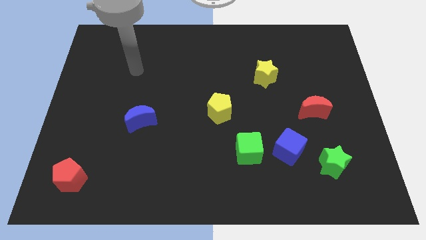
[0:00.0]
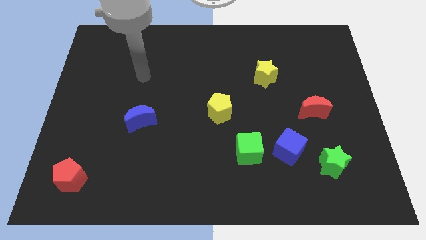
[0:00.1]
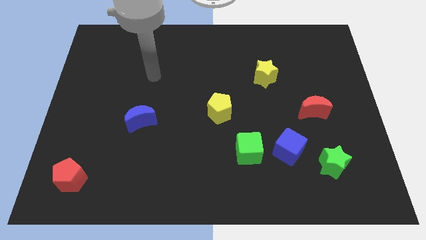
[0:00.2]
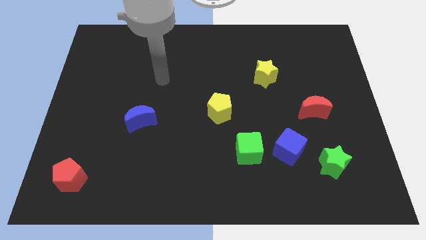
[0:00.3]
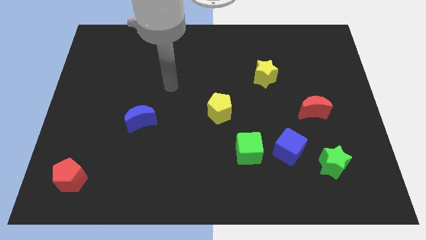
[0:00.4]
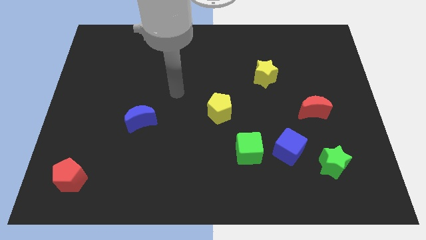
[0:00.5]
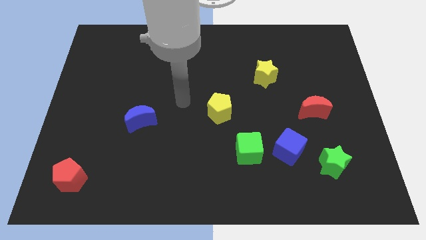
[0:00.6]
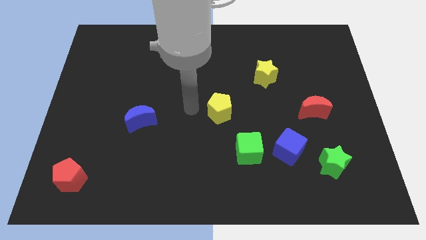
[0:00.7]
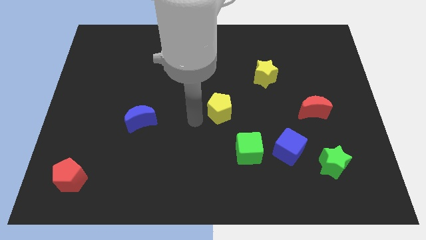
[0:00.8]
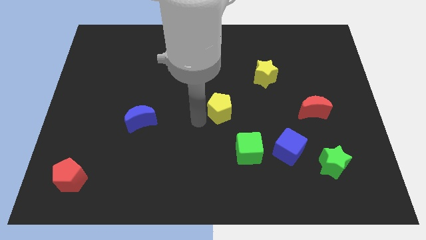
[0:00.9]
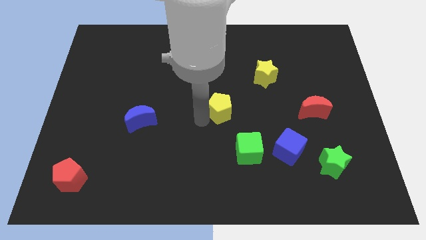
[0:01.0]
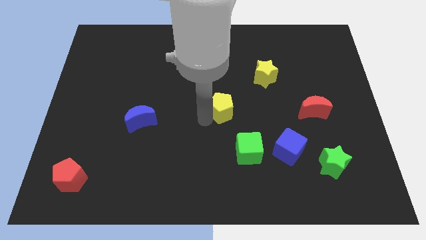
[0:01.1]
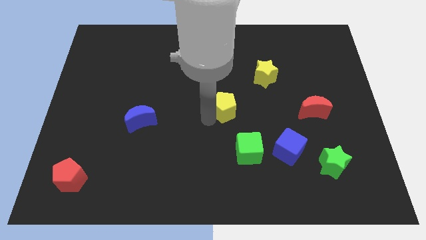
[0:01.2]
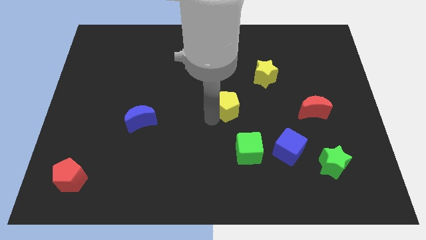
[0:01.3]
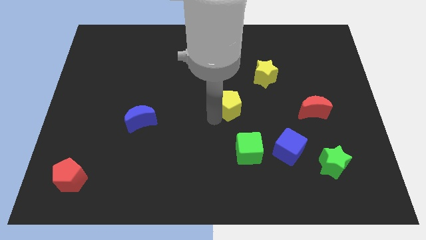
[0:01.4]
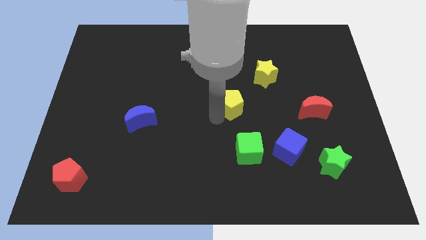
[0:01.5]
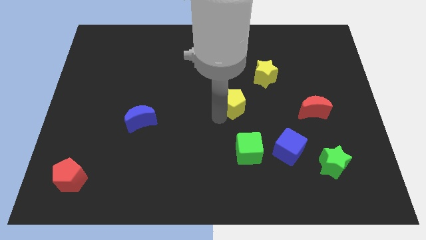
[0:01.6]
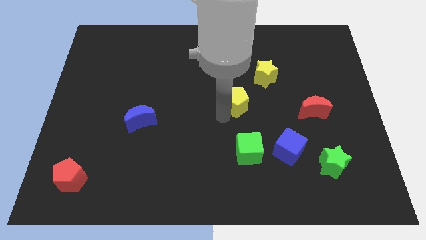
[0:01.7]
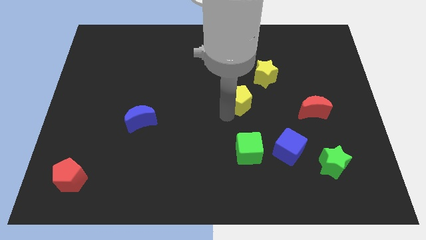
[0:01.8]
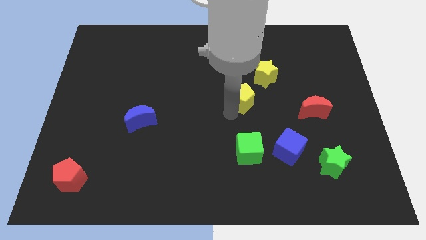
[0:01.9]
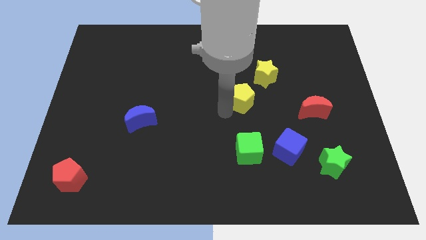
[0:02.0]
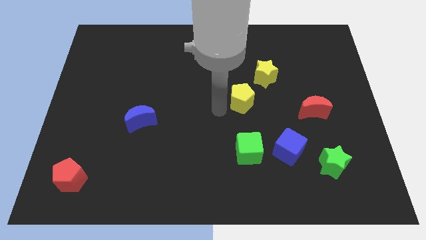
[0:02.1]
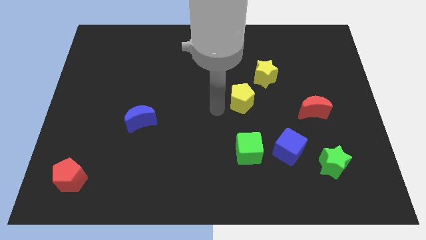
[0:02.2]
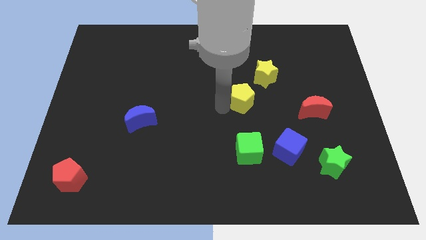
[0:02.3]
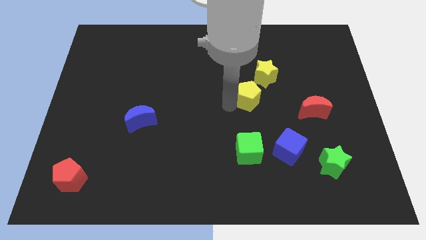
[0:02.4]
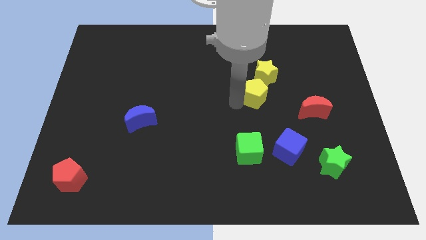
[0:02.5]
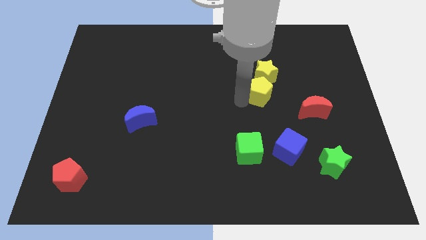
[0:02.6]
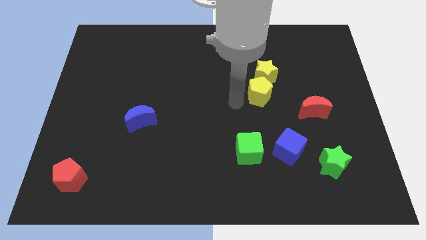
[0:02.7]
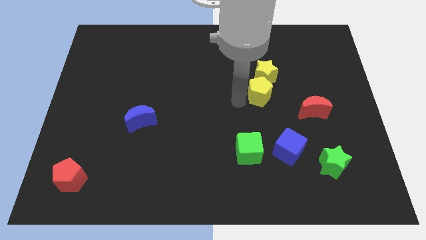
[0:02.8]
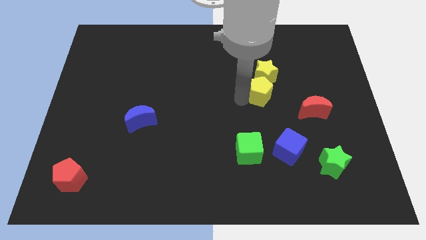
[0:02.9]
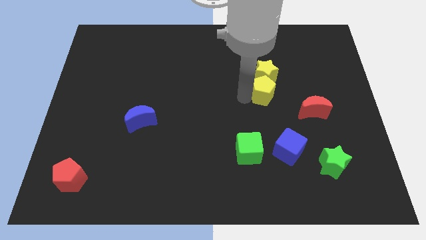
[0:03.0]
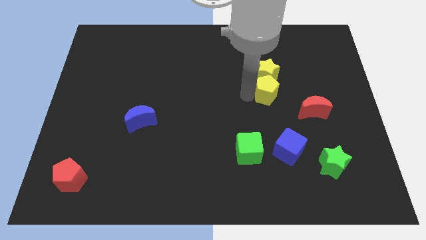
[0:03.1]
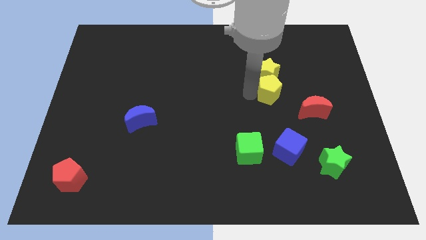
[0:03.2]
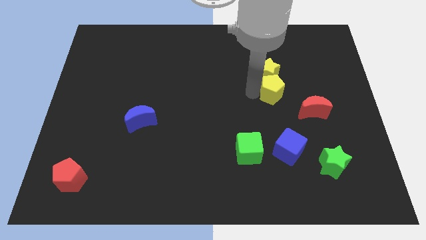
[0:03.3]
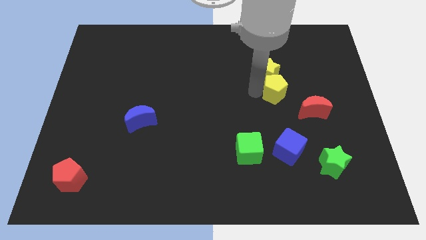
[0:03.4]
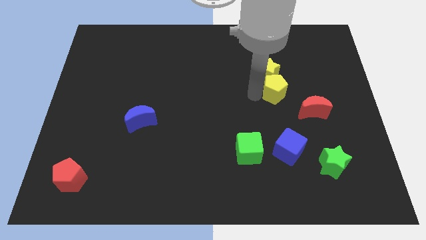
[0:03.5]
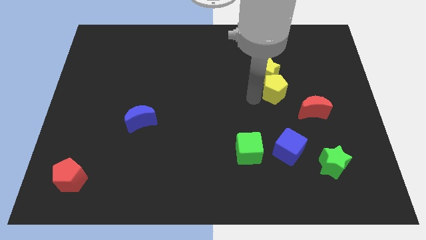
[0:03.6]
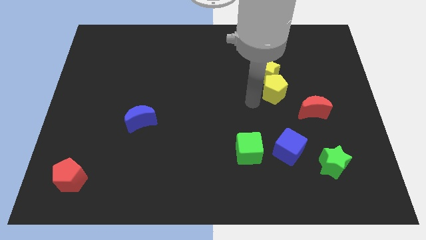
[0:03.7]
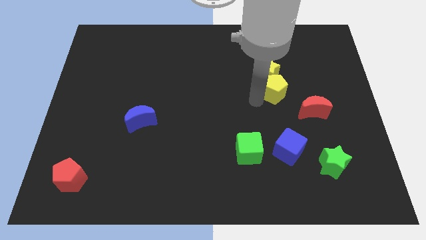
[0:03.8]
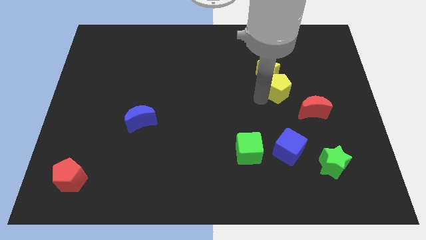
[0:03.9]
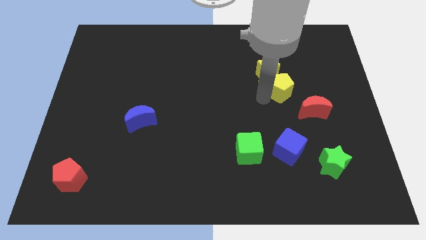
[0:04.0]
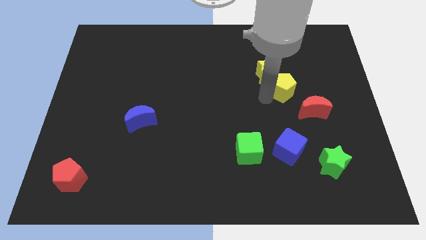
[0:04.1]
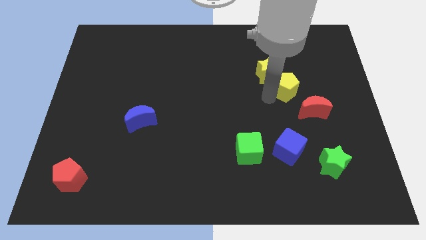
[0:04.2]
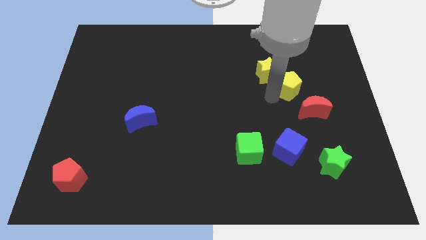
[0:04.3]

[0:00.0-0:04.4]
move the yellow pentagon above the red moon

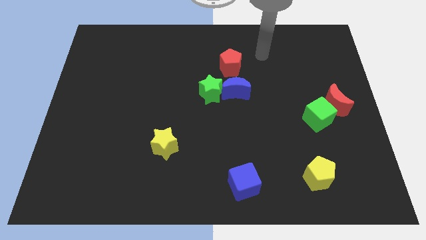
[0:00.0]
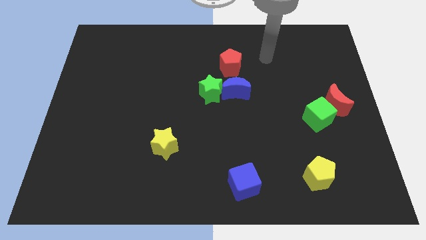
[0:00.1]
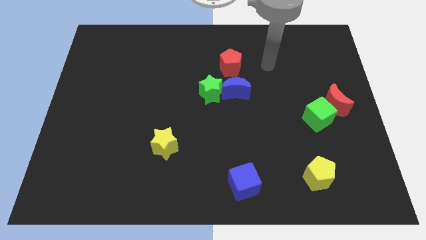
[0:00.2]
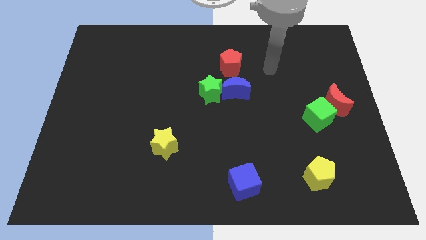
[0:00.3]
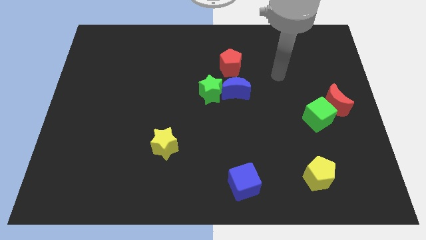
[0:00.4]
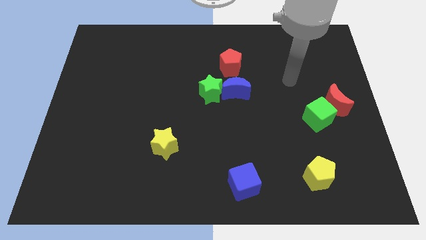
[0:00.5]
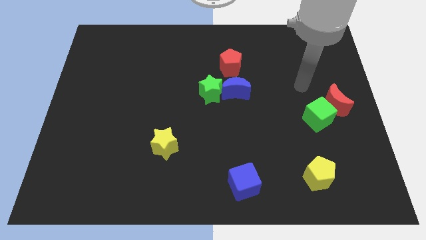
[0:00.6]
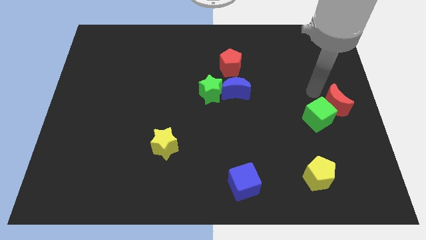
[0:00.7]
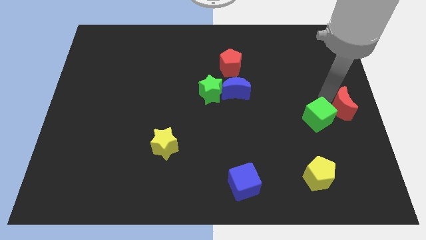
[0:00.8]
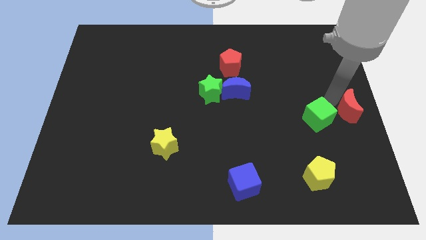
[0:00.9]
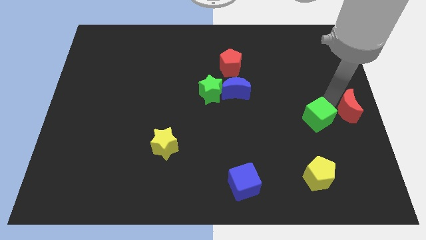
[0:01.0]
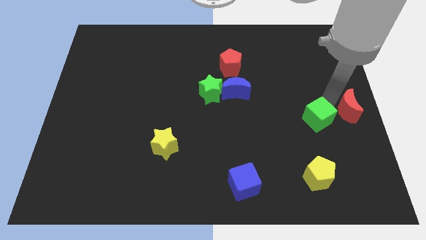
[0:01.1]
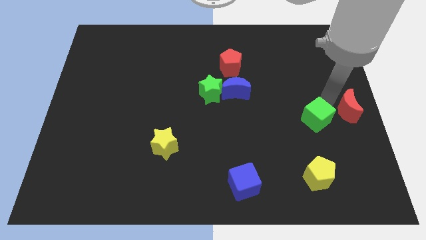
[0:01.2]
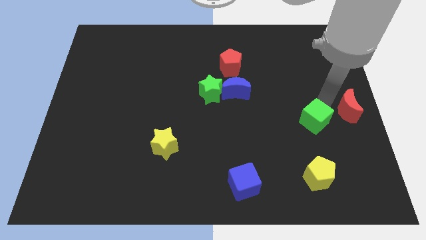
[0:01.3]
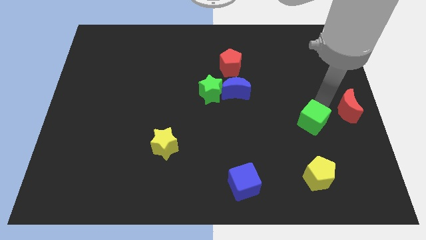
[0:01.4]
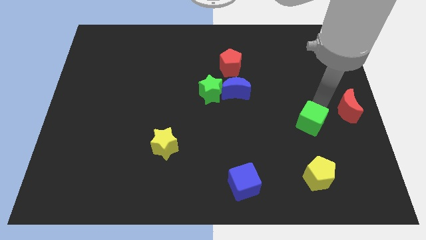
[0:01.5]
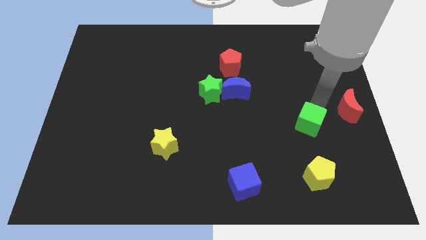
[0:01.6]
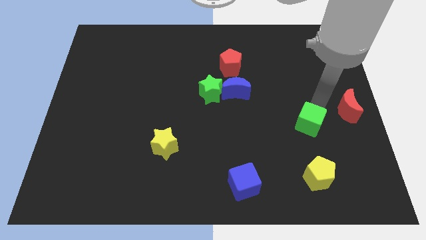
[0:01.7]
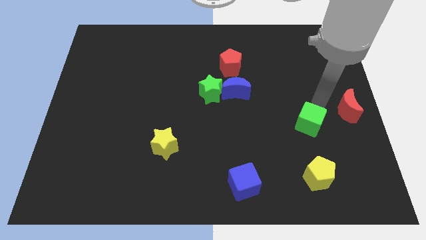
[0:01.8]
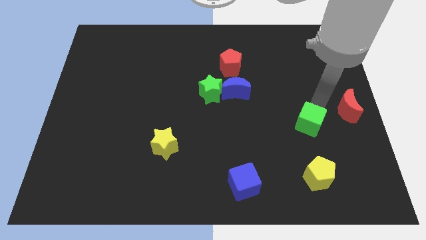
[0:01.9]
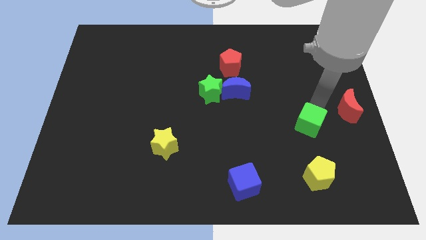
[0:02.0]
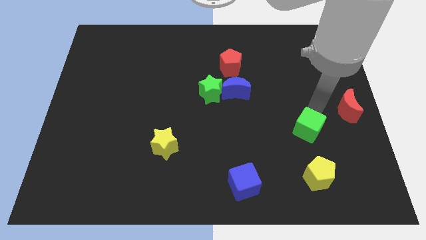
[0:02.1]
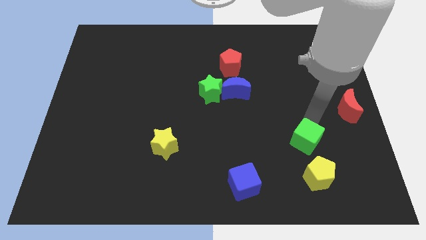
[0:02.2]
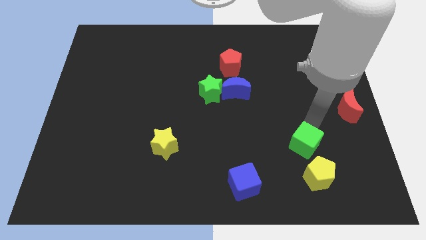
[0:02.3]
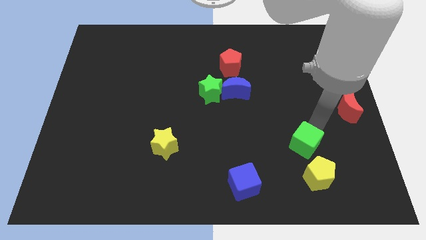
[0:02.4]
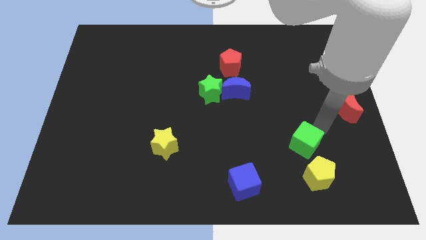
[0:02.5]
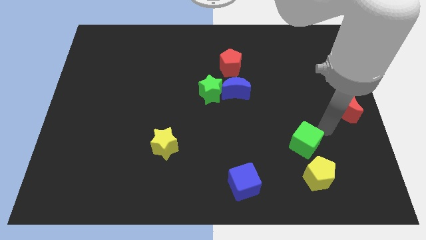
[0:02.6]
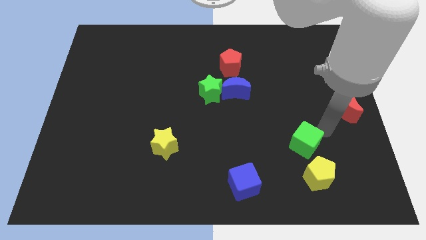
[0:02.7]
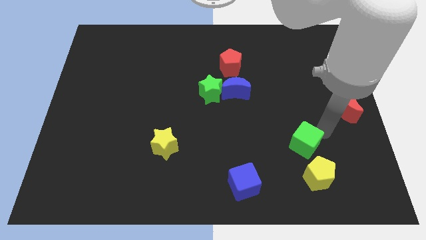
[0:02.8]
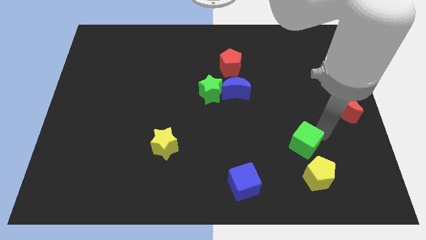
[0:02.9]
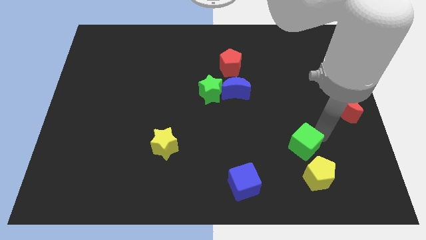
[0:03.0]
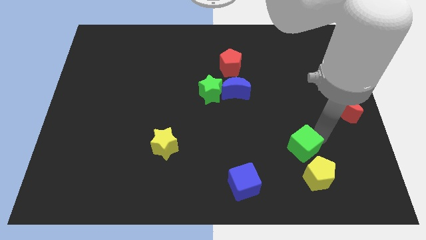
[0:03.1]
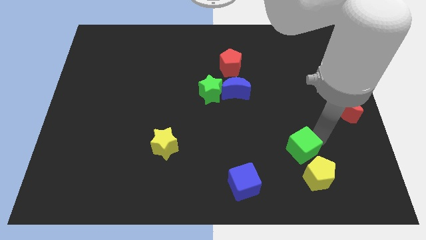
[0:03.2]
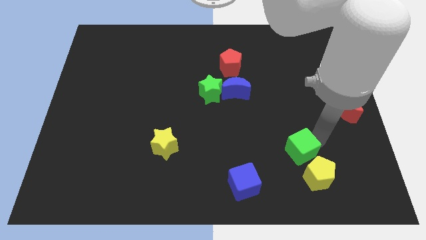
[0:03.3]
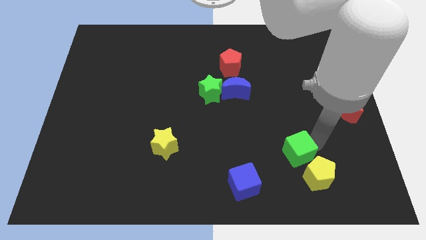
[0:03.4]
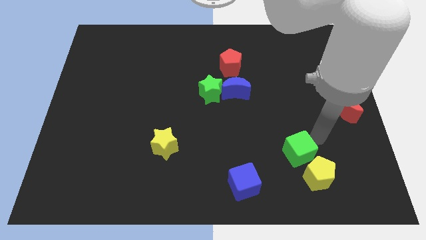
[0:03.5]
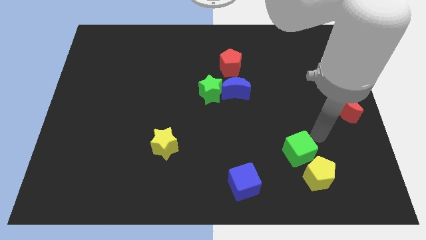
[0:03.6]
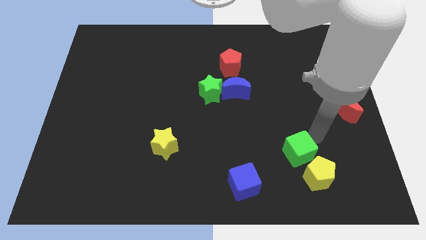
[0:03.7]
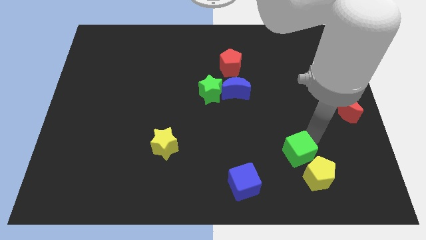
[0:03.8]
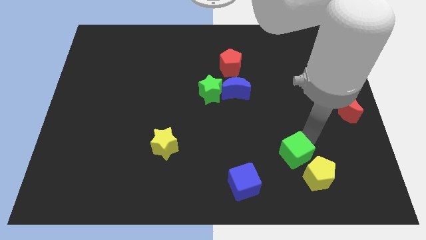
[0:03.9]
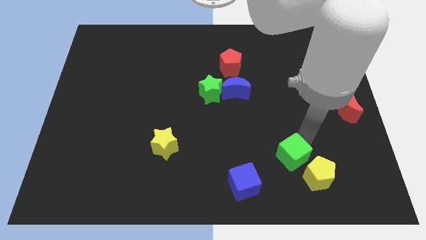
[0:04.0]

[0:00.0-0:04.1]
move the green cube left of the yellow pentagon
